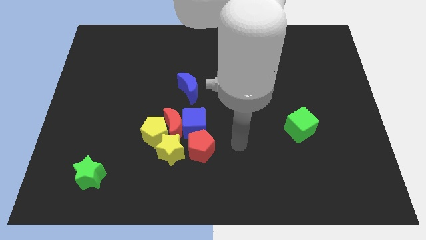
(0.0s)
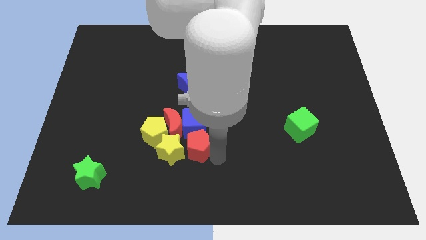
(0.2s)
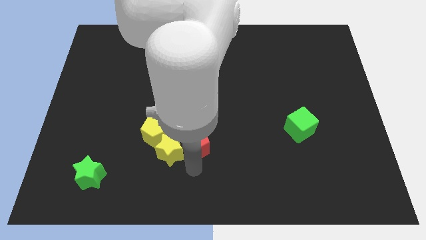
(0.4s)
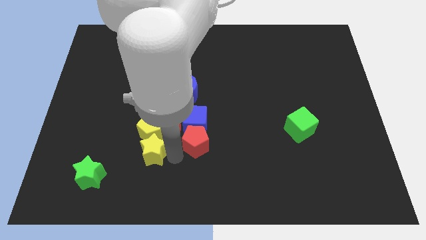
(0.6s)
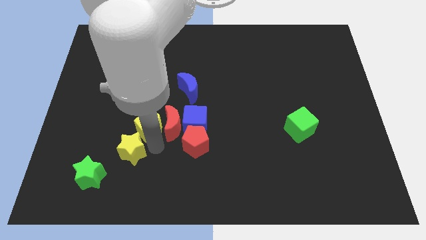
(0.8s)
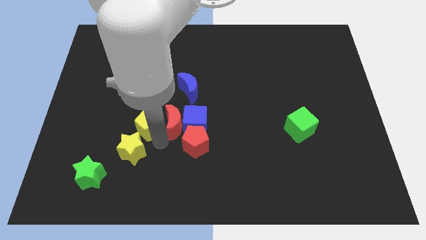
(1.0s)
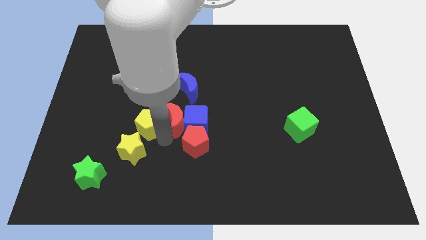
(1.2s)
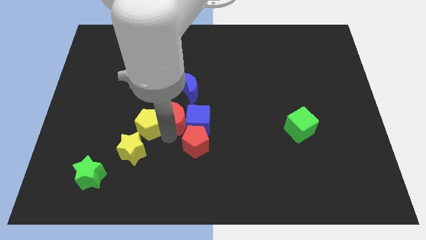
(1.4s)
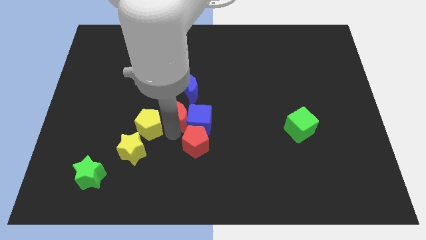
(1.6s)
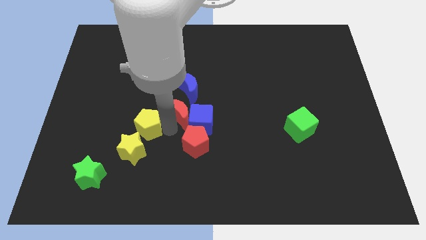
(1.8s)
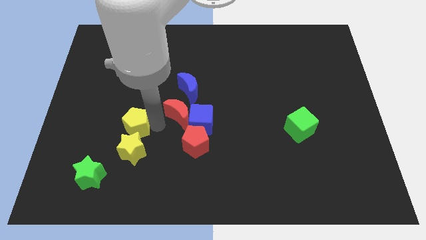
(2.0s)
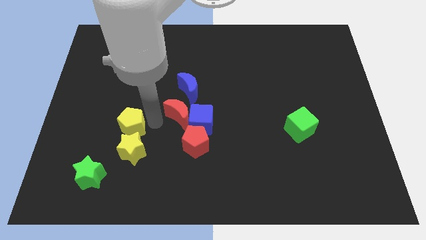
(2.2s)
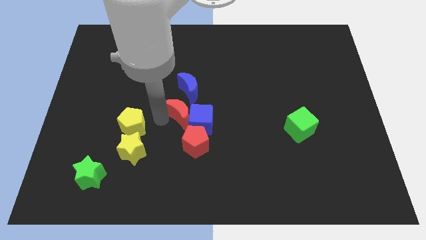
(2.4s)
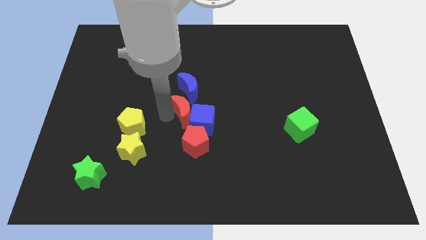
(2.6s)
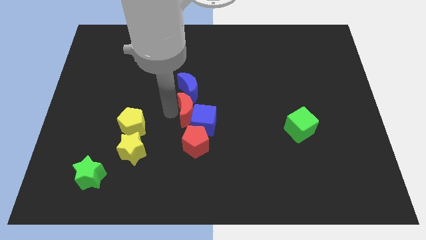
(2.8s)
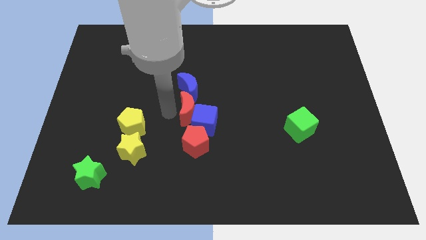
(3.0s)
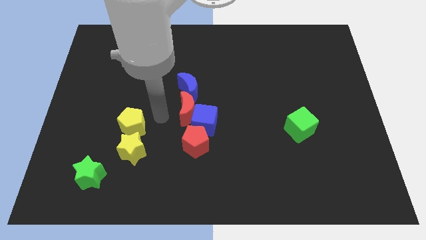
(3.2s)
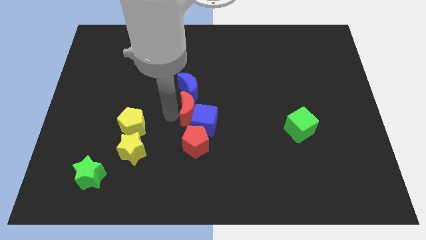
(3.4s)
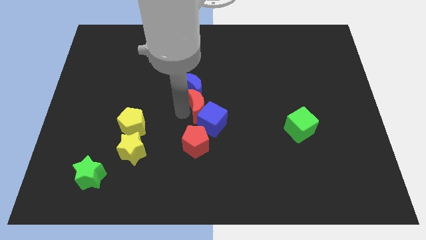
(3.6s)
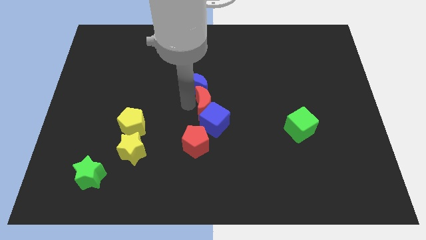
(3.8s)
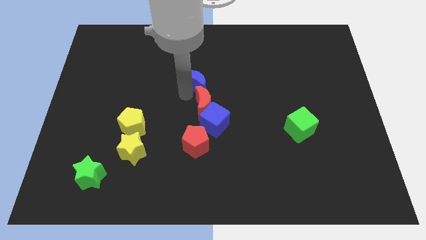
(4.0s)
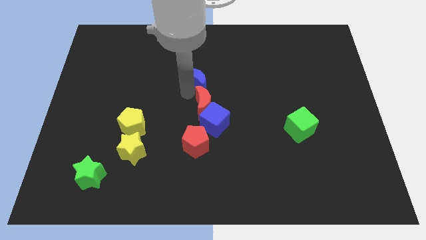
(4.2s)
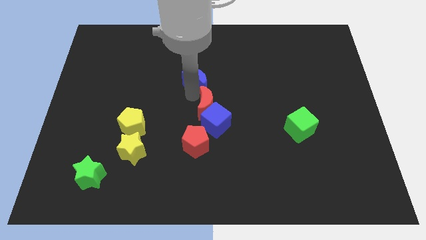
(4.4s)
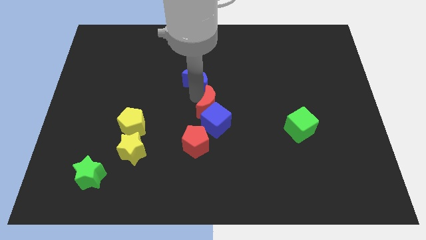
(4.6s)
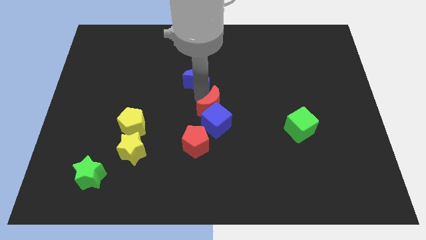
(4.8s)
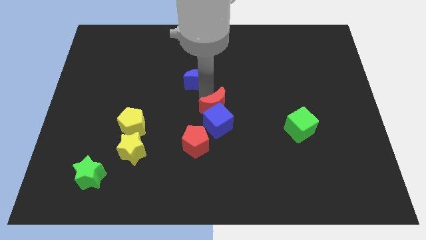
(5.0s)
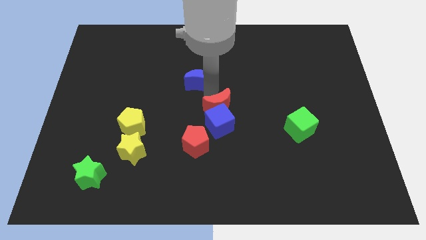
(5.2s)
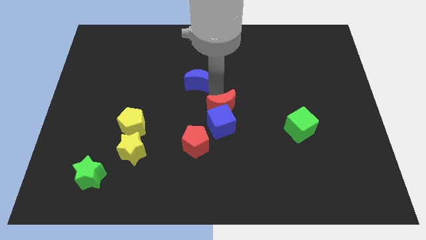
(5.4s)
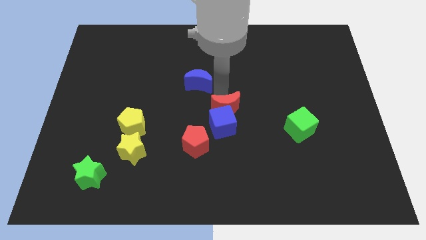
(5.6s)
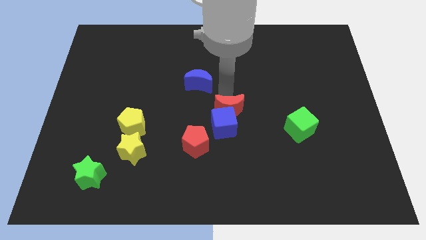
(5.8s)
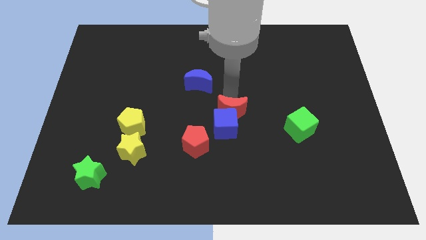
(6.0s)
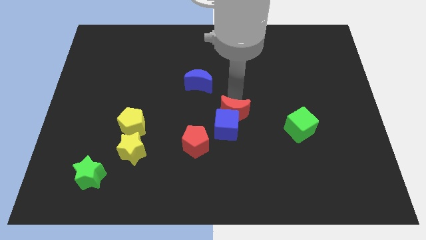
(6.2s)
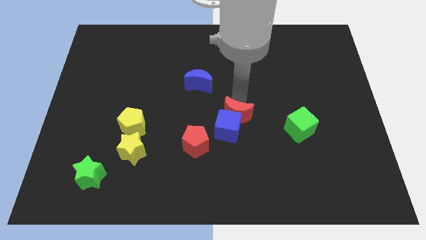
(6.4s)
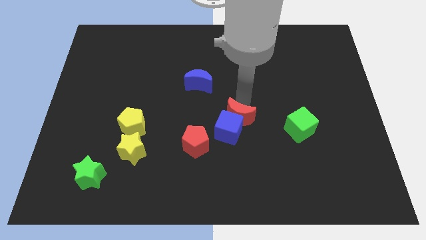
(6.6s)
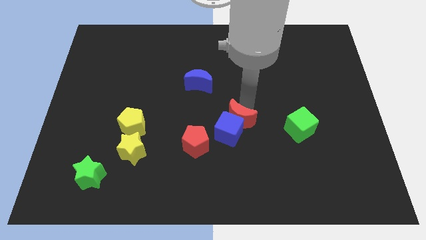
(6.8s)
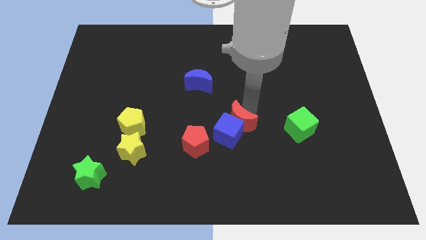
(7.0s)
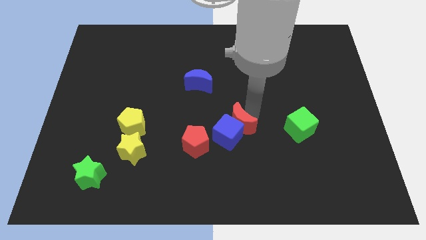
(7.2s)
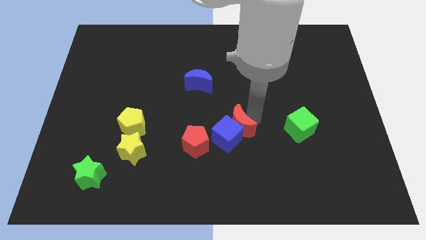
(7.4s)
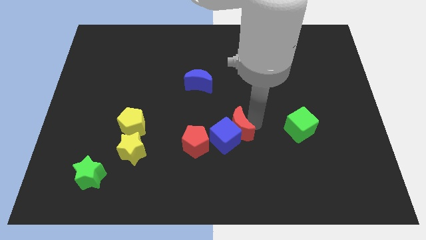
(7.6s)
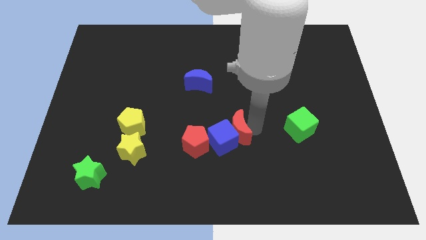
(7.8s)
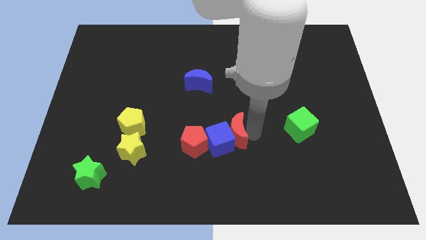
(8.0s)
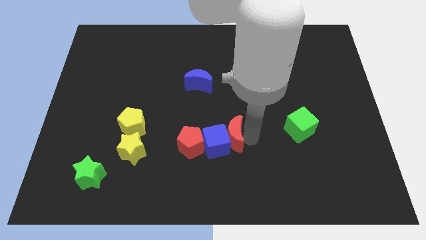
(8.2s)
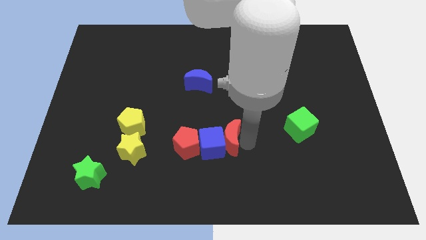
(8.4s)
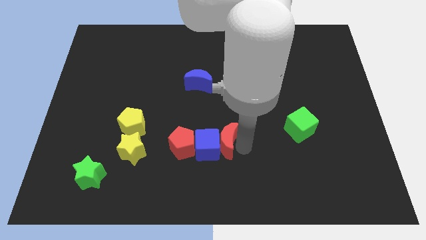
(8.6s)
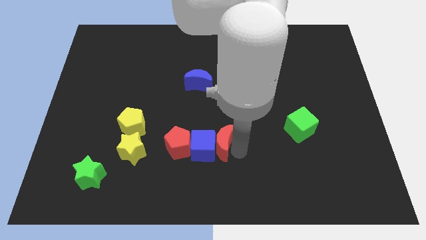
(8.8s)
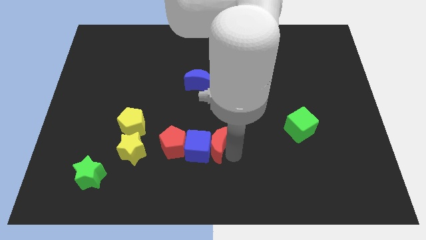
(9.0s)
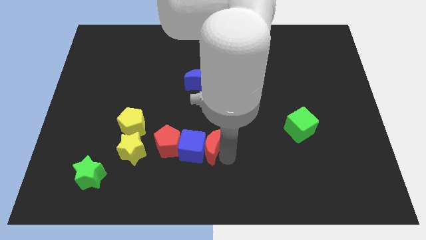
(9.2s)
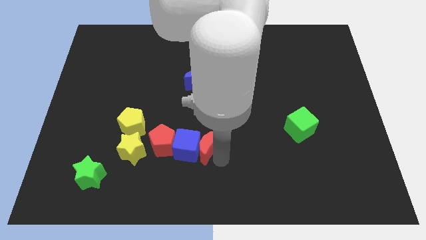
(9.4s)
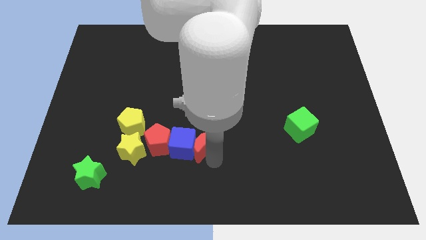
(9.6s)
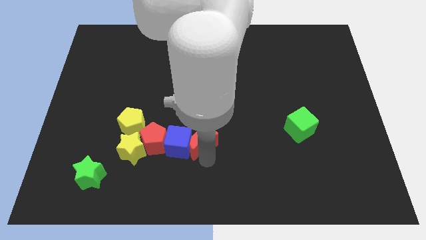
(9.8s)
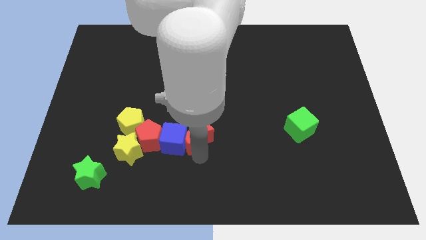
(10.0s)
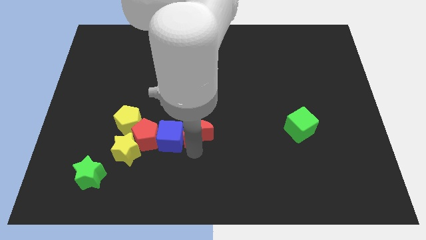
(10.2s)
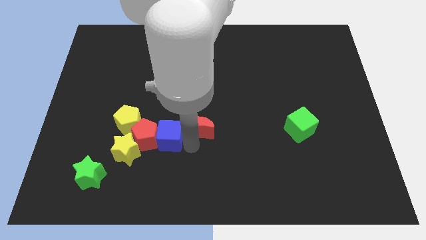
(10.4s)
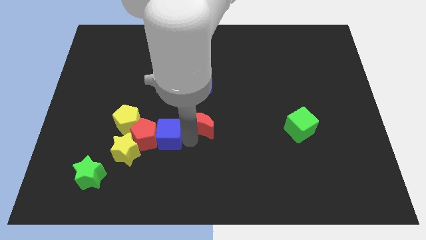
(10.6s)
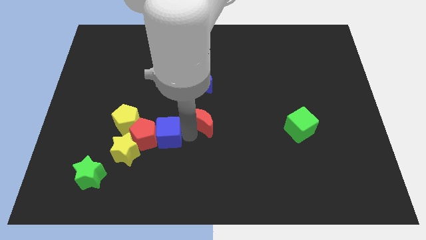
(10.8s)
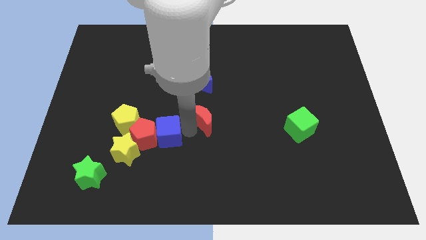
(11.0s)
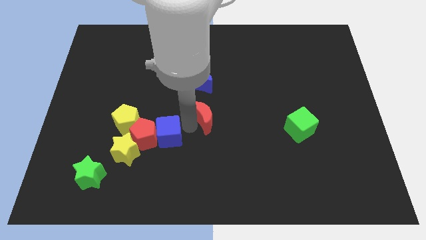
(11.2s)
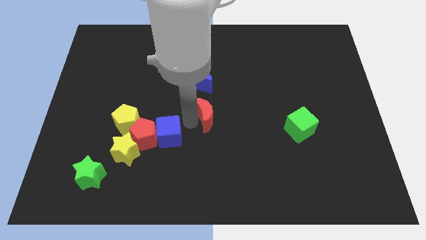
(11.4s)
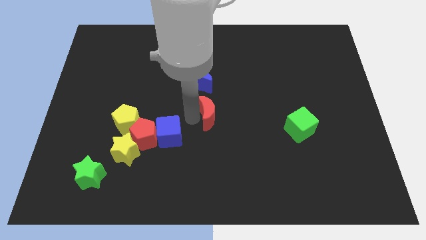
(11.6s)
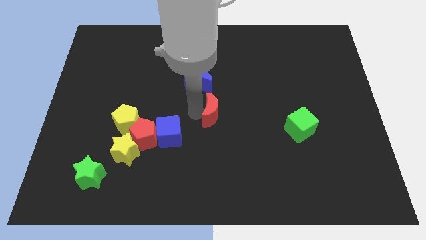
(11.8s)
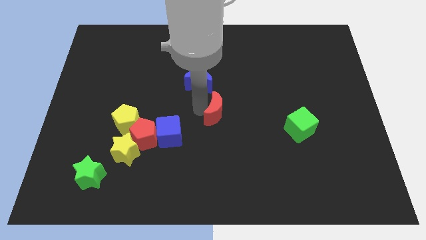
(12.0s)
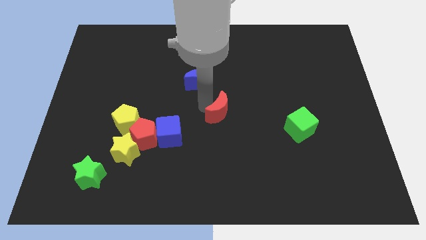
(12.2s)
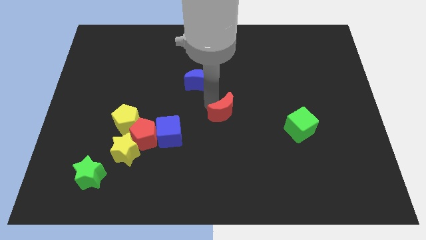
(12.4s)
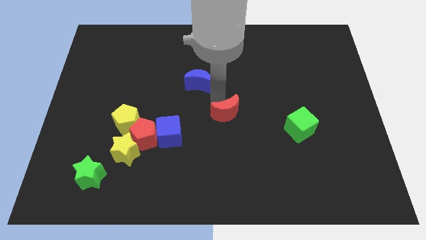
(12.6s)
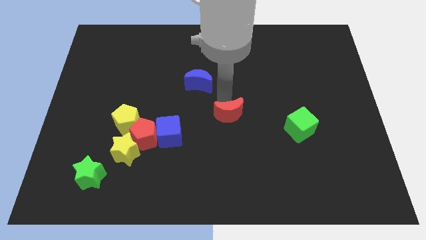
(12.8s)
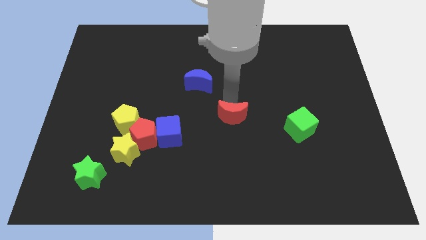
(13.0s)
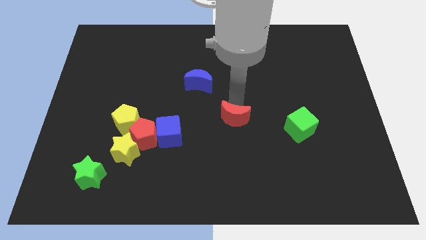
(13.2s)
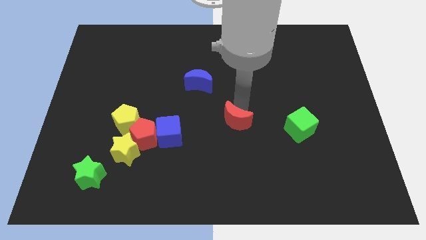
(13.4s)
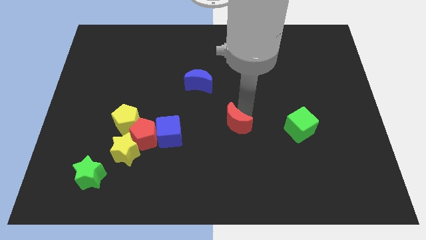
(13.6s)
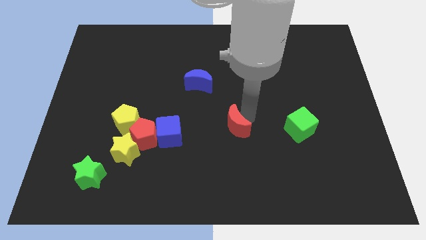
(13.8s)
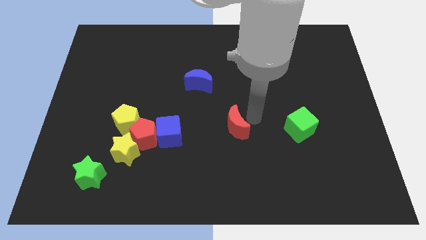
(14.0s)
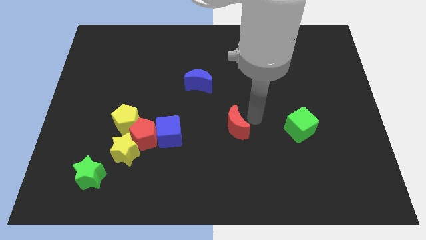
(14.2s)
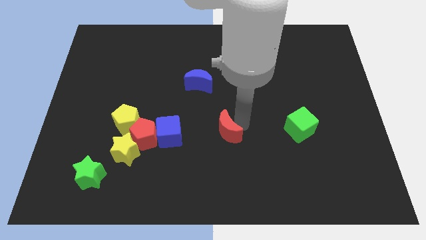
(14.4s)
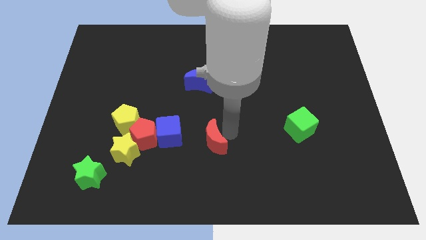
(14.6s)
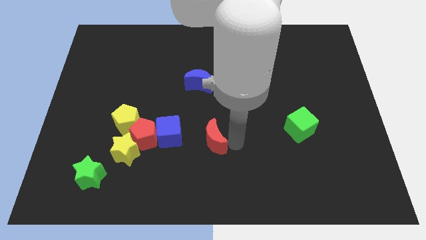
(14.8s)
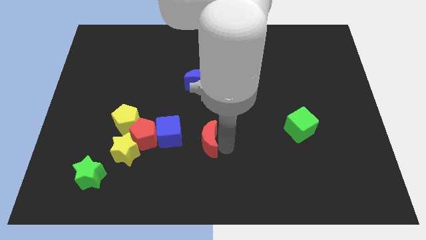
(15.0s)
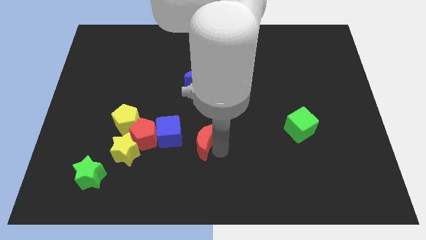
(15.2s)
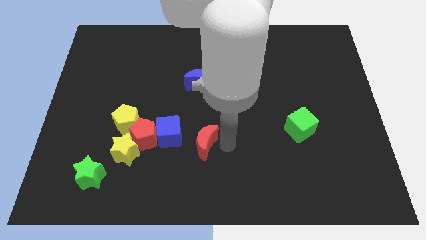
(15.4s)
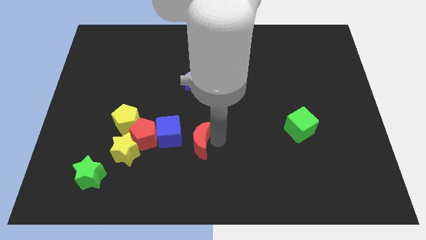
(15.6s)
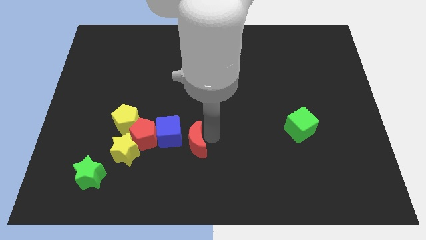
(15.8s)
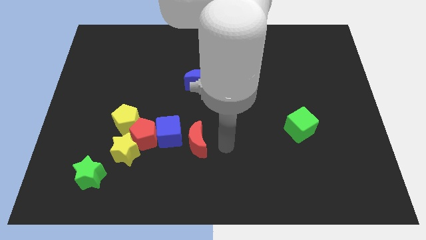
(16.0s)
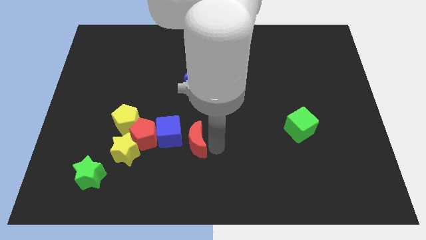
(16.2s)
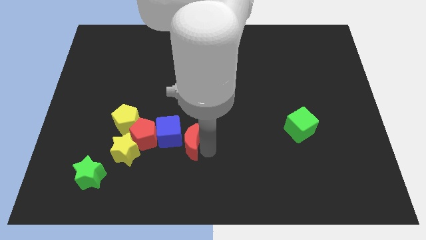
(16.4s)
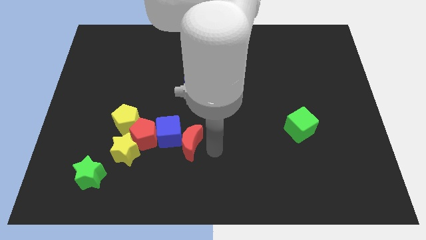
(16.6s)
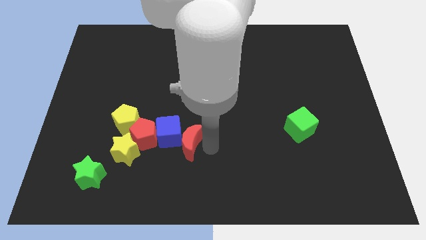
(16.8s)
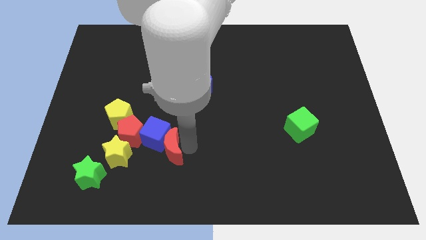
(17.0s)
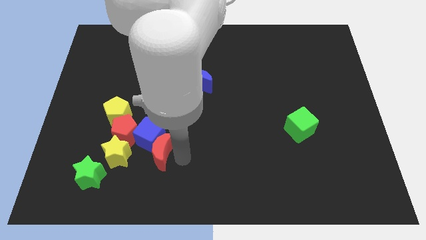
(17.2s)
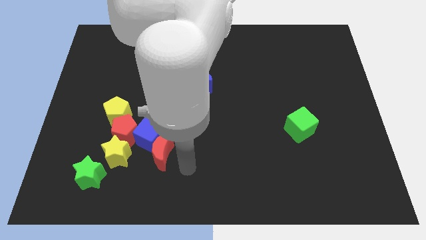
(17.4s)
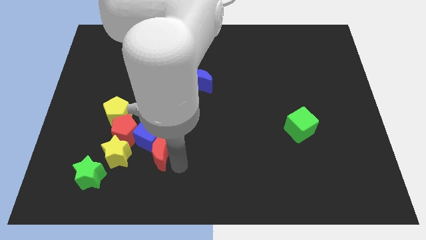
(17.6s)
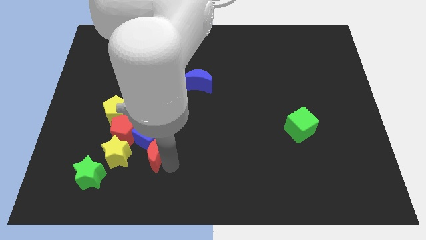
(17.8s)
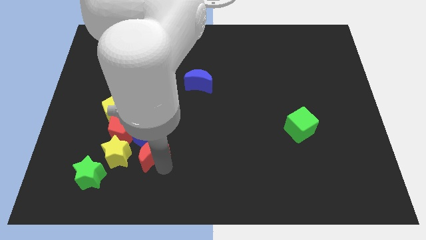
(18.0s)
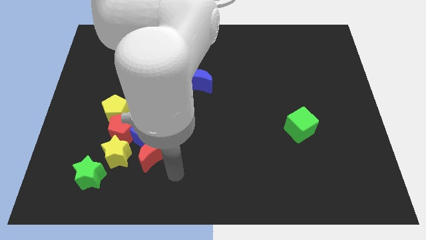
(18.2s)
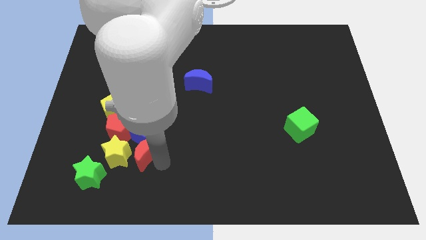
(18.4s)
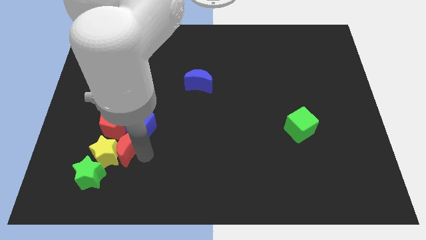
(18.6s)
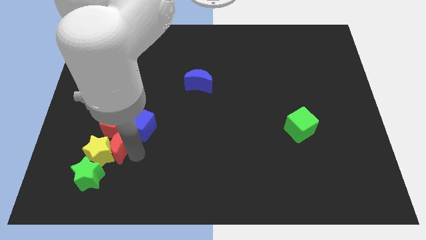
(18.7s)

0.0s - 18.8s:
move the red moon towards the red pentagon
